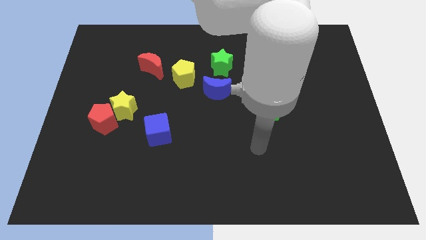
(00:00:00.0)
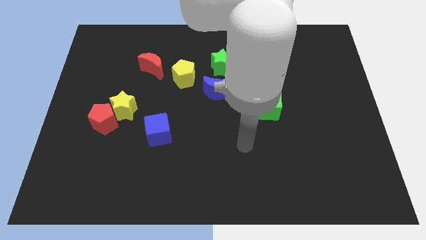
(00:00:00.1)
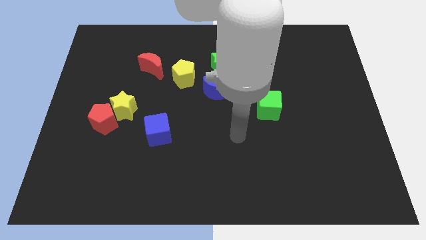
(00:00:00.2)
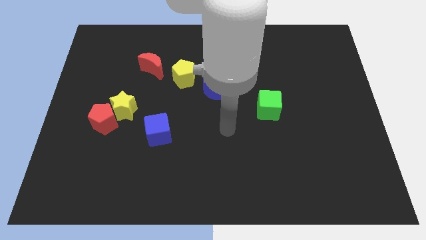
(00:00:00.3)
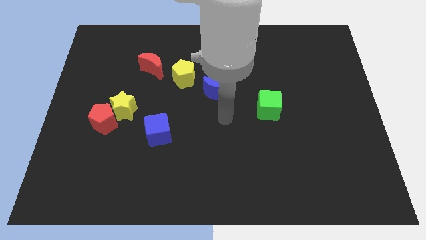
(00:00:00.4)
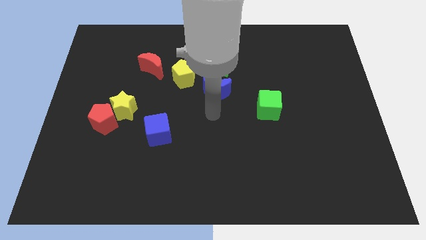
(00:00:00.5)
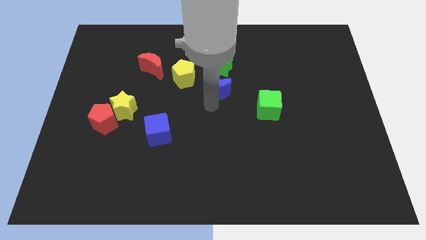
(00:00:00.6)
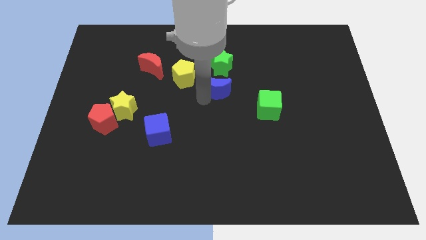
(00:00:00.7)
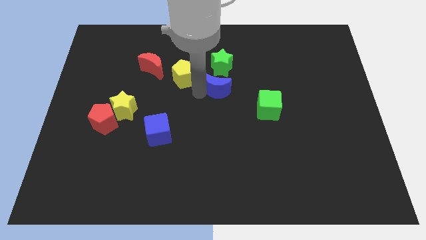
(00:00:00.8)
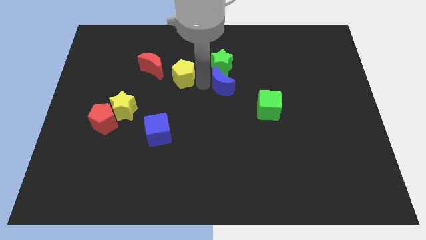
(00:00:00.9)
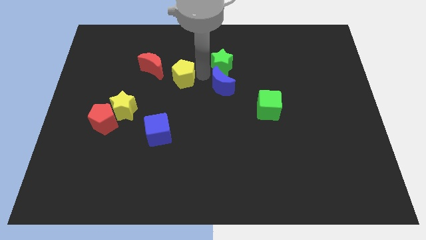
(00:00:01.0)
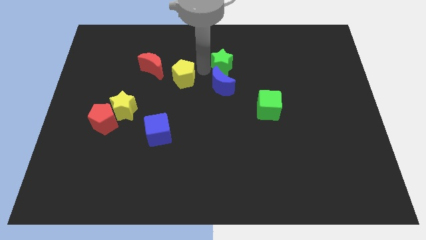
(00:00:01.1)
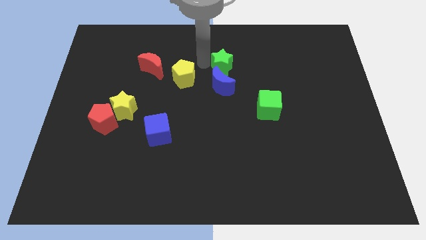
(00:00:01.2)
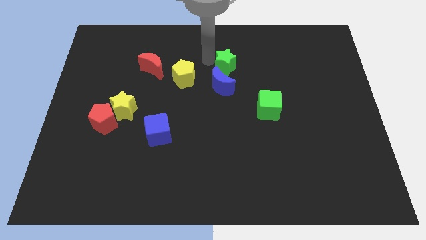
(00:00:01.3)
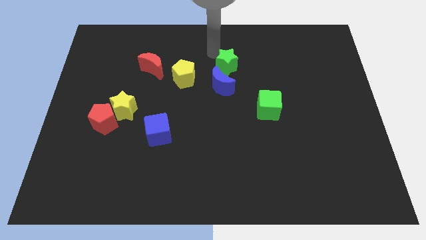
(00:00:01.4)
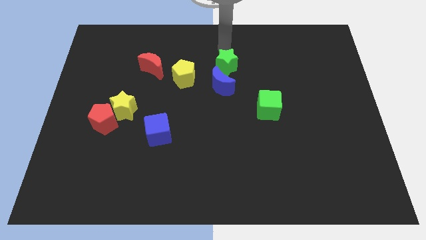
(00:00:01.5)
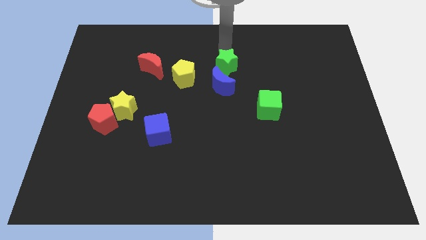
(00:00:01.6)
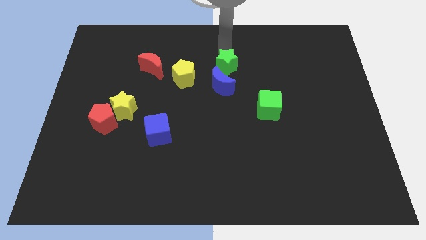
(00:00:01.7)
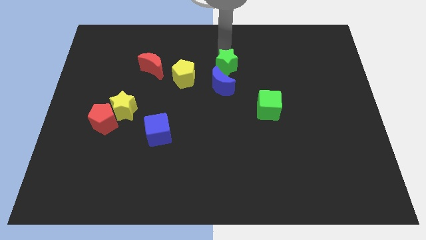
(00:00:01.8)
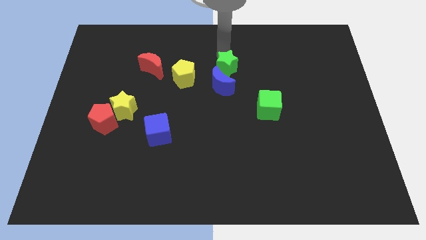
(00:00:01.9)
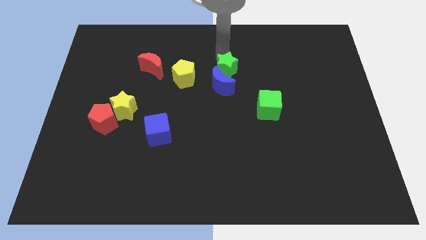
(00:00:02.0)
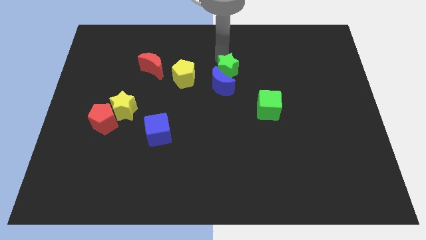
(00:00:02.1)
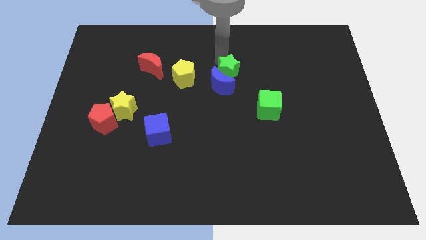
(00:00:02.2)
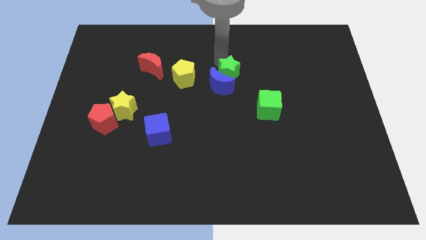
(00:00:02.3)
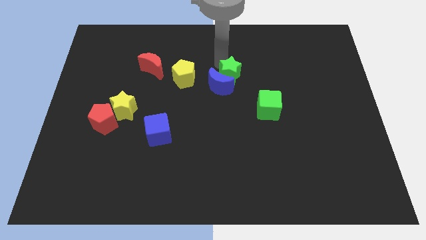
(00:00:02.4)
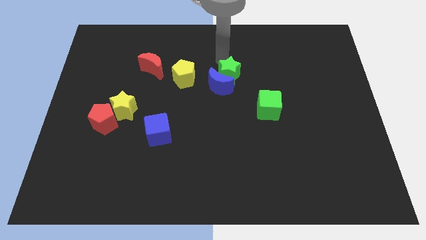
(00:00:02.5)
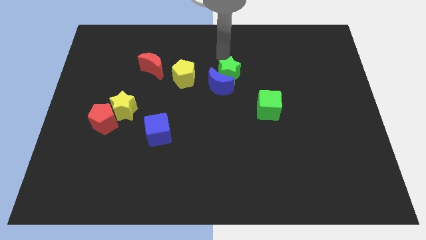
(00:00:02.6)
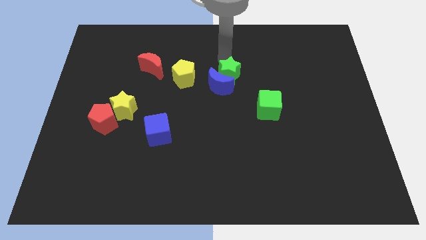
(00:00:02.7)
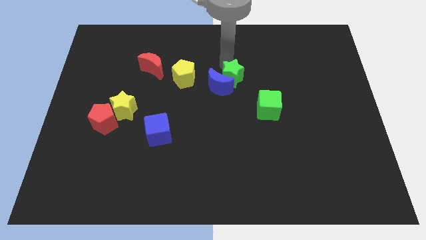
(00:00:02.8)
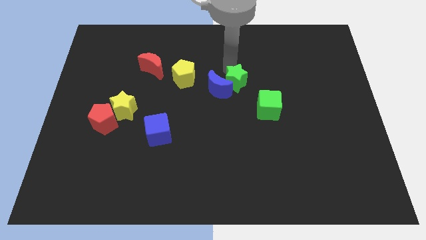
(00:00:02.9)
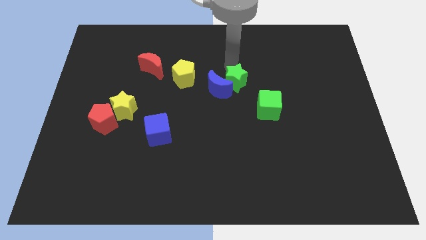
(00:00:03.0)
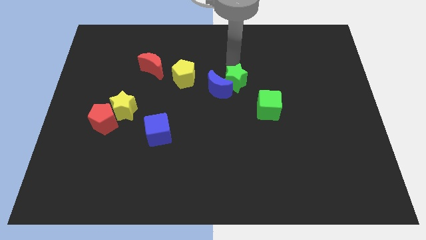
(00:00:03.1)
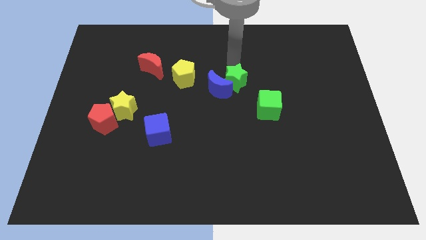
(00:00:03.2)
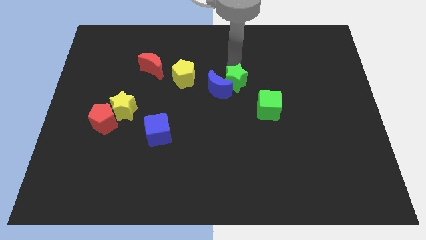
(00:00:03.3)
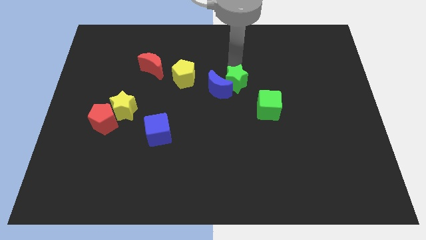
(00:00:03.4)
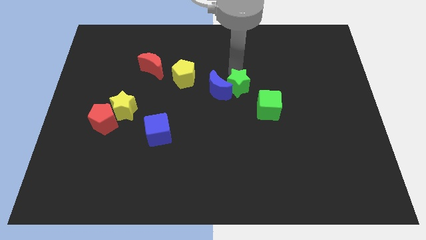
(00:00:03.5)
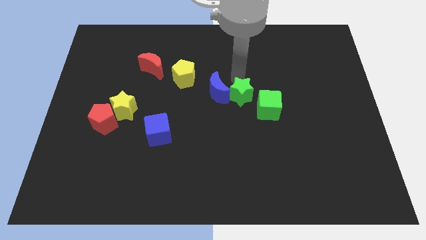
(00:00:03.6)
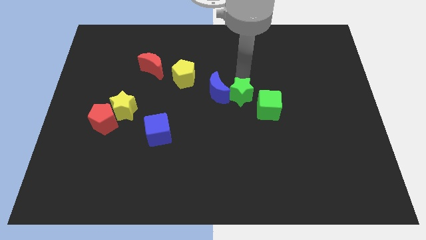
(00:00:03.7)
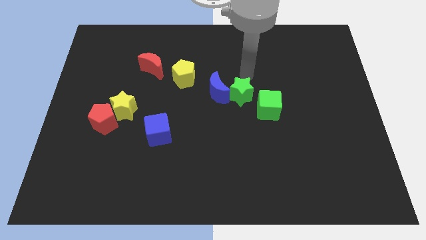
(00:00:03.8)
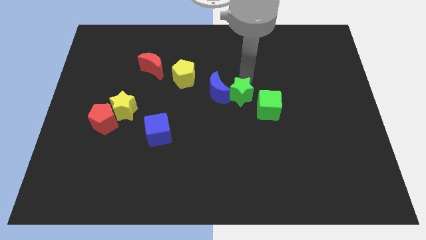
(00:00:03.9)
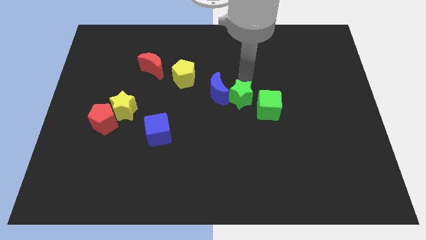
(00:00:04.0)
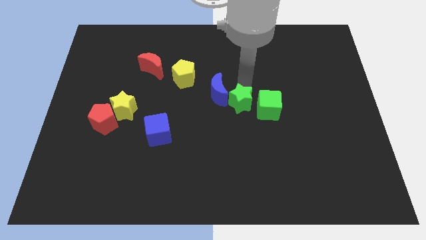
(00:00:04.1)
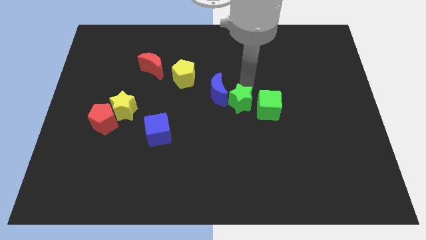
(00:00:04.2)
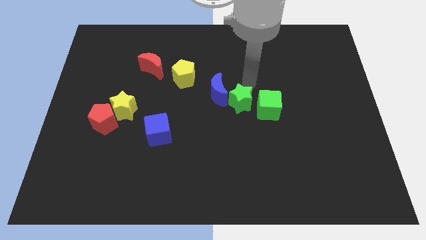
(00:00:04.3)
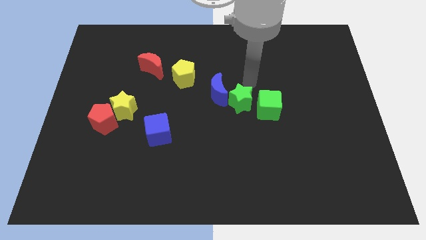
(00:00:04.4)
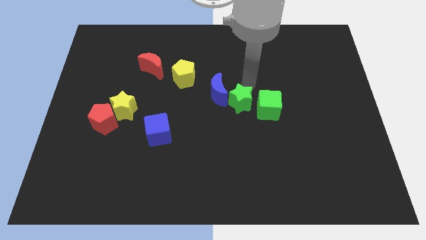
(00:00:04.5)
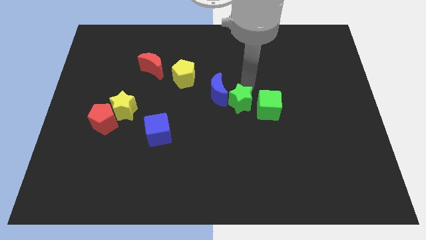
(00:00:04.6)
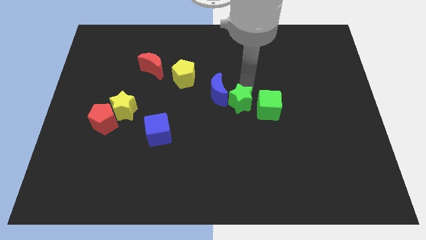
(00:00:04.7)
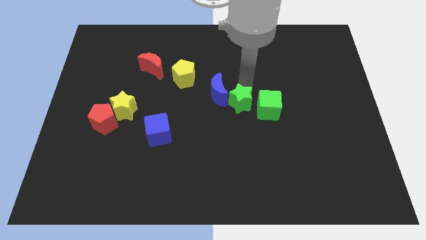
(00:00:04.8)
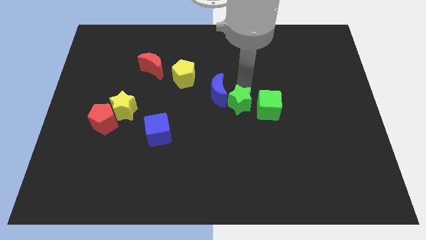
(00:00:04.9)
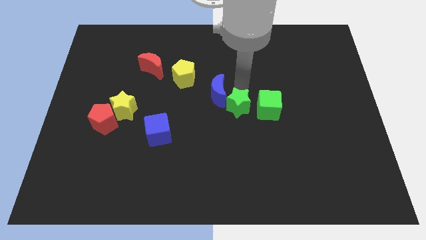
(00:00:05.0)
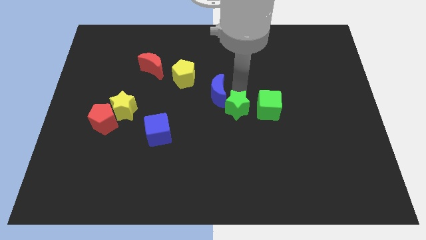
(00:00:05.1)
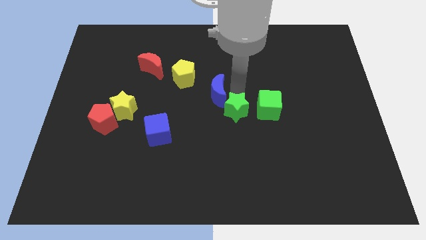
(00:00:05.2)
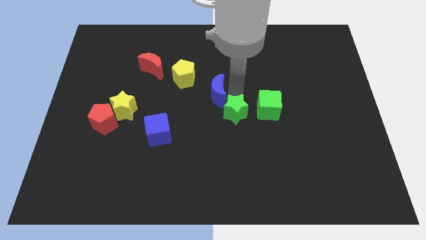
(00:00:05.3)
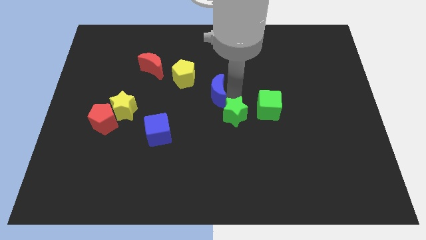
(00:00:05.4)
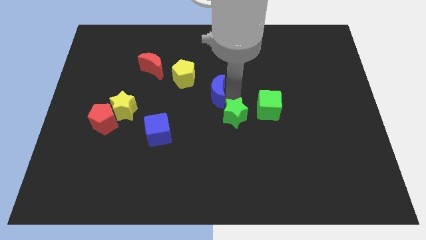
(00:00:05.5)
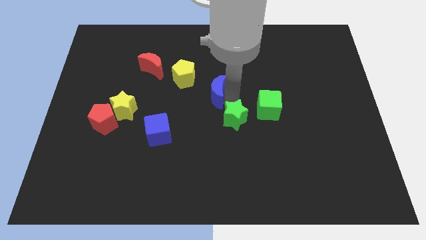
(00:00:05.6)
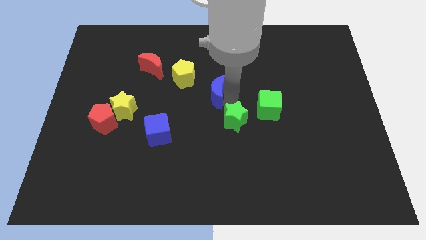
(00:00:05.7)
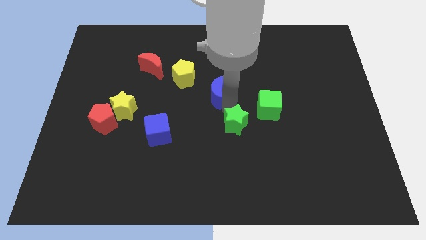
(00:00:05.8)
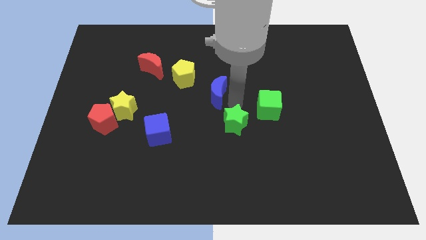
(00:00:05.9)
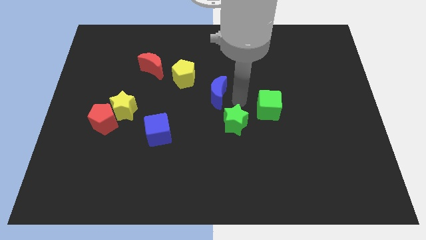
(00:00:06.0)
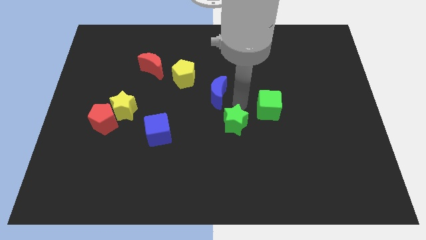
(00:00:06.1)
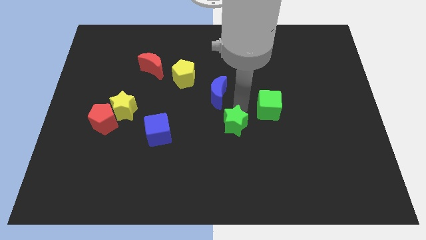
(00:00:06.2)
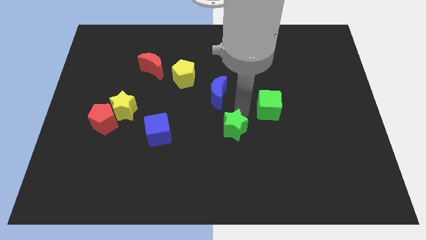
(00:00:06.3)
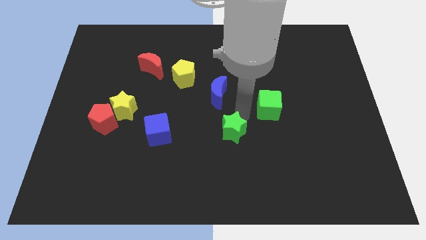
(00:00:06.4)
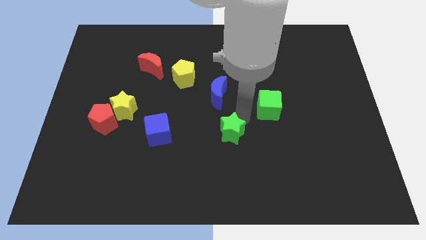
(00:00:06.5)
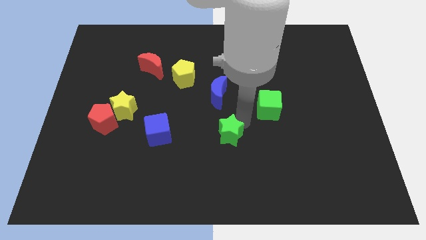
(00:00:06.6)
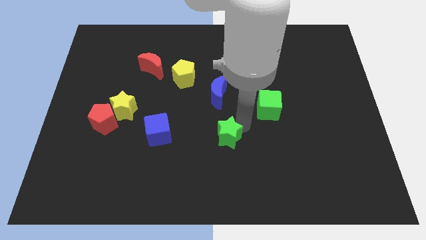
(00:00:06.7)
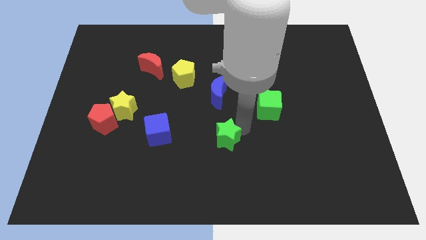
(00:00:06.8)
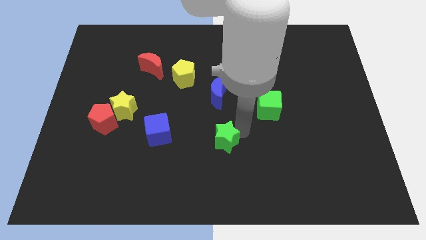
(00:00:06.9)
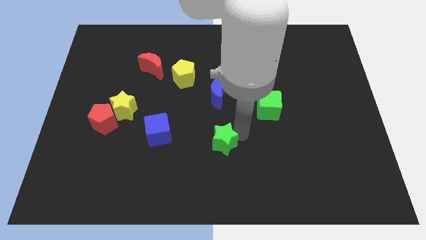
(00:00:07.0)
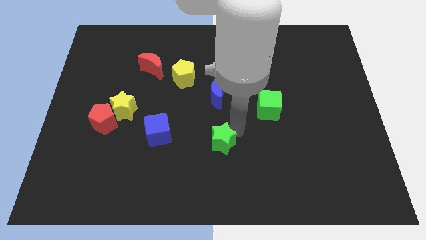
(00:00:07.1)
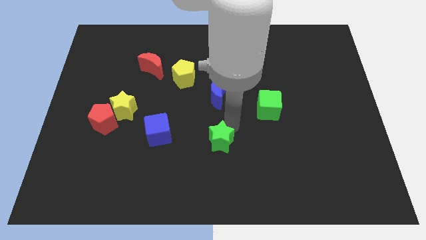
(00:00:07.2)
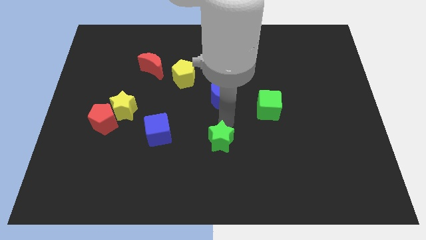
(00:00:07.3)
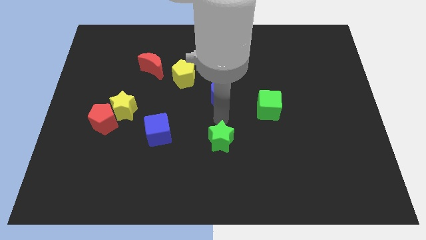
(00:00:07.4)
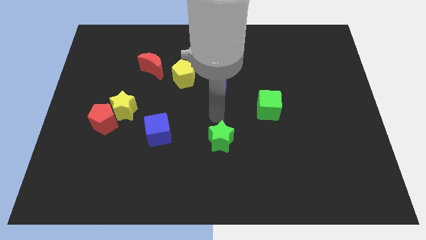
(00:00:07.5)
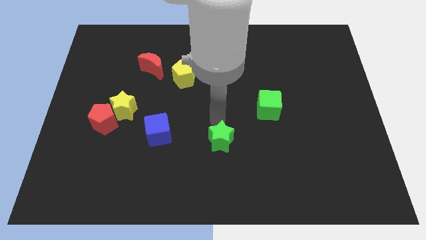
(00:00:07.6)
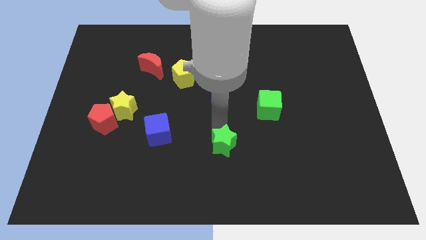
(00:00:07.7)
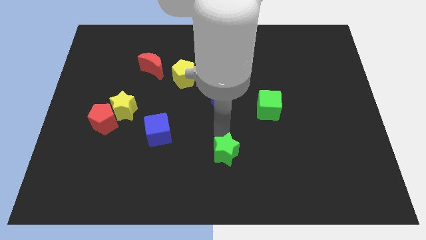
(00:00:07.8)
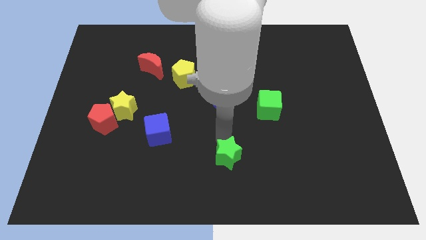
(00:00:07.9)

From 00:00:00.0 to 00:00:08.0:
slide the green star to the bottom
